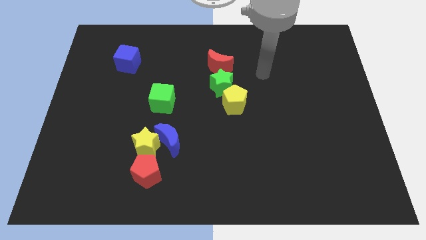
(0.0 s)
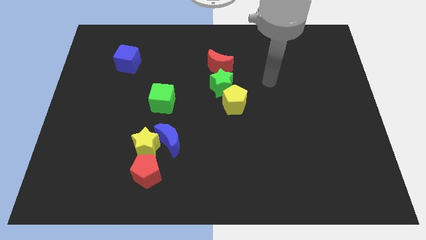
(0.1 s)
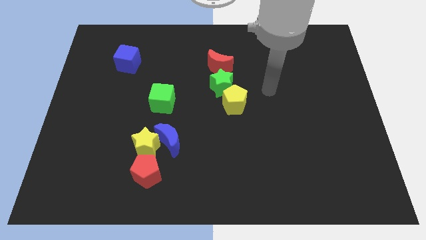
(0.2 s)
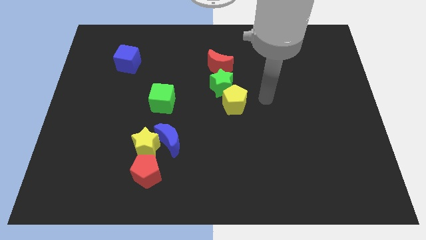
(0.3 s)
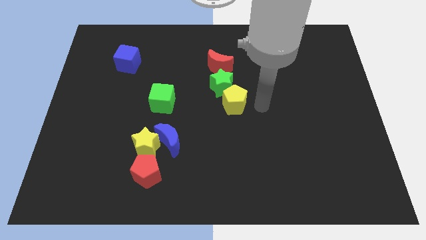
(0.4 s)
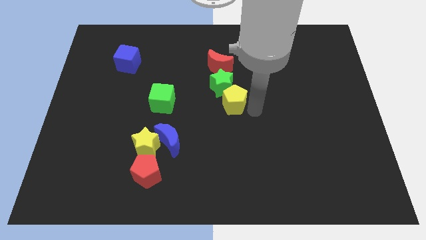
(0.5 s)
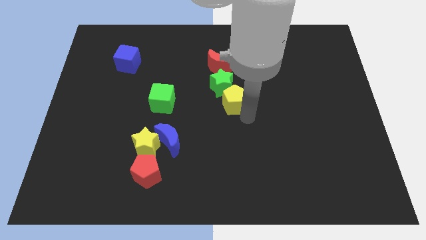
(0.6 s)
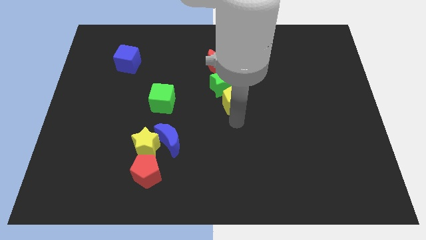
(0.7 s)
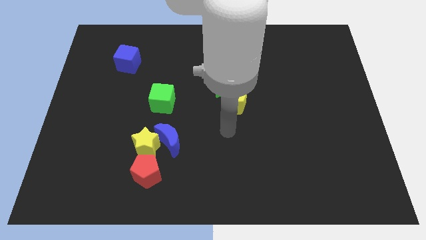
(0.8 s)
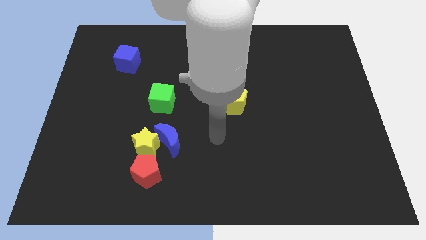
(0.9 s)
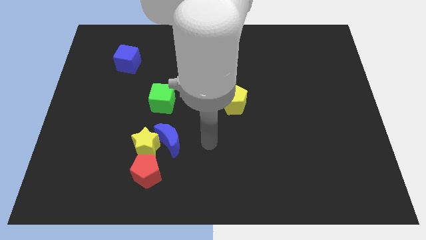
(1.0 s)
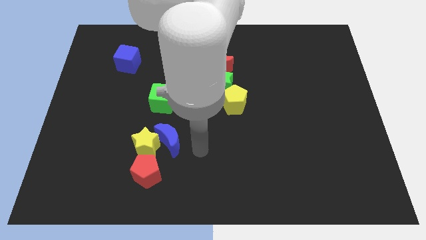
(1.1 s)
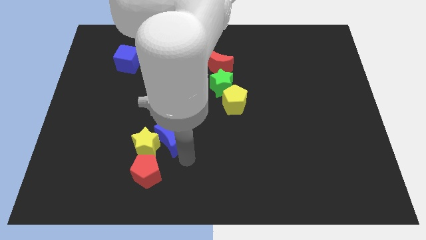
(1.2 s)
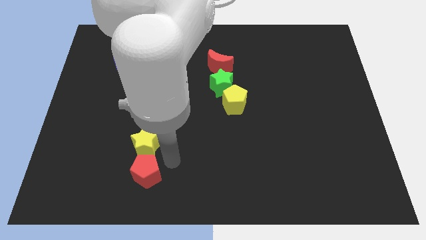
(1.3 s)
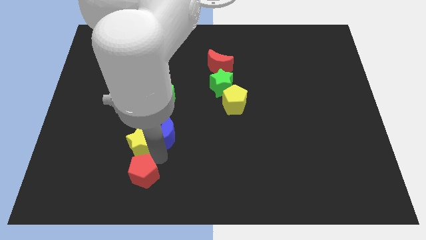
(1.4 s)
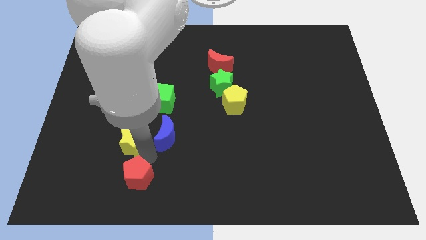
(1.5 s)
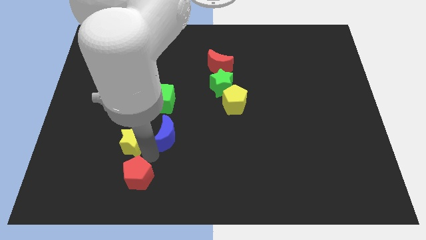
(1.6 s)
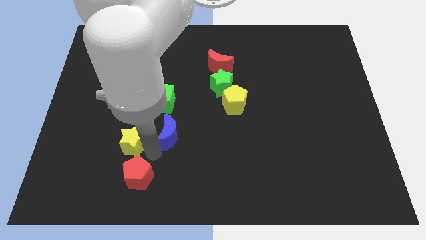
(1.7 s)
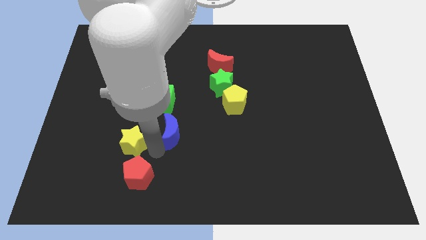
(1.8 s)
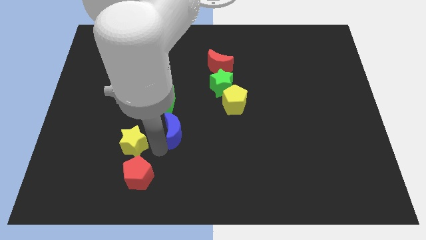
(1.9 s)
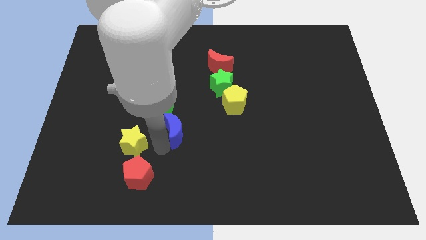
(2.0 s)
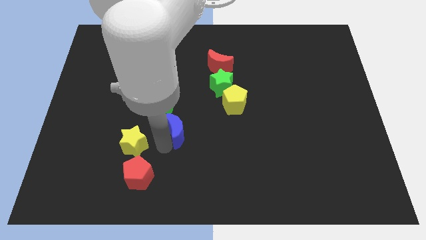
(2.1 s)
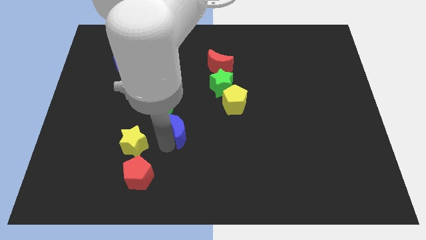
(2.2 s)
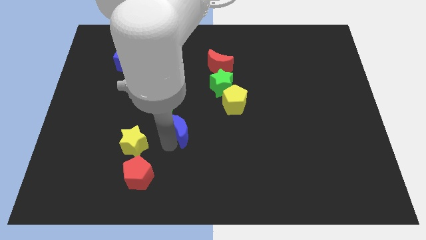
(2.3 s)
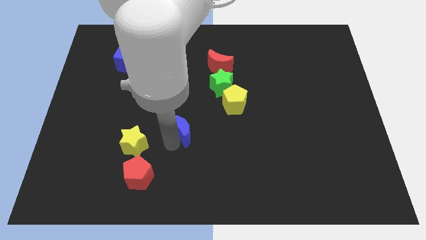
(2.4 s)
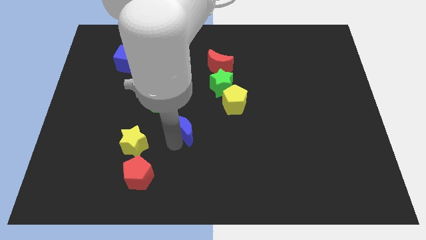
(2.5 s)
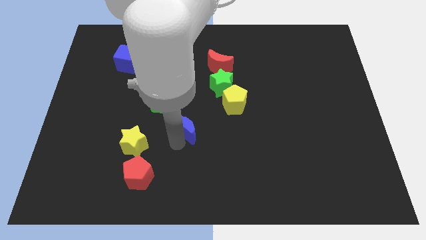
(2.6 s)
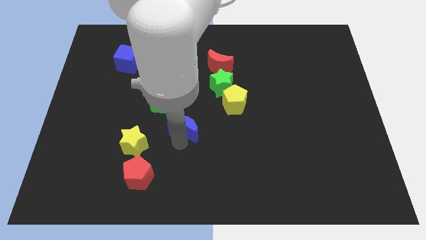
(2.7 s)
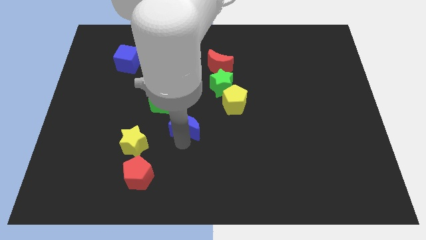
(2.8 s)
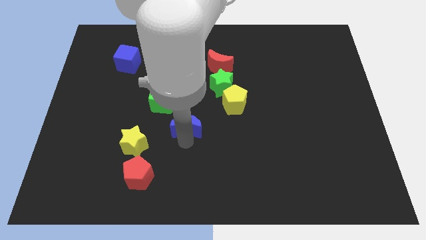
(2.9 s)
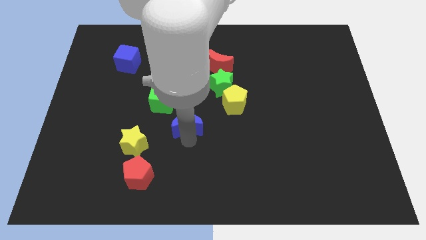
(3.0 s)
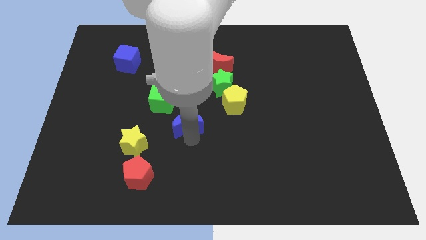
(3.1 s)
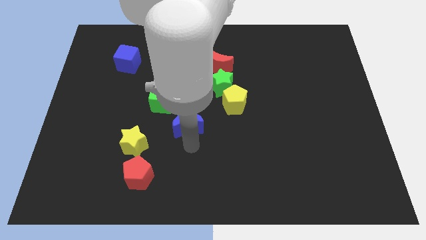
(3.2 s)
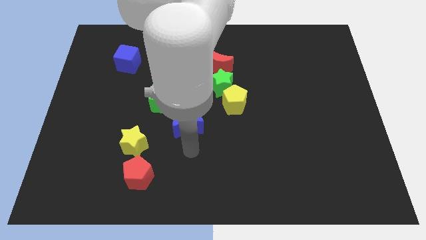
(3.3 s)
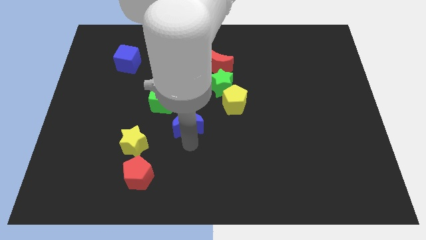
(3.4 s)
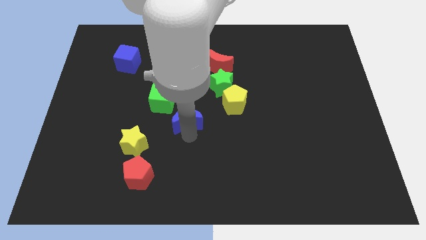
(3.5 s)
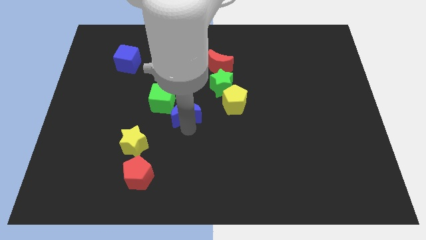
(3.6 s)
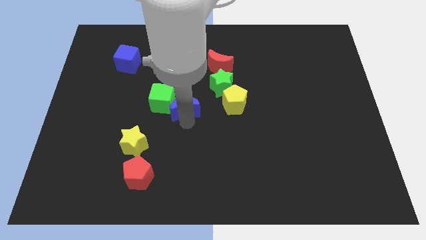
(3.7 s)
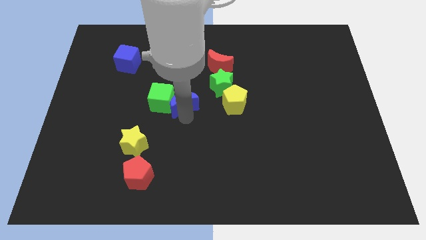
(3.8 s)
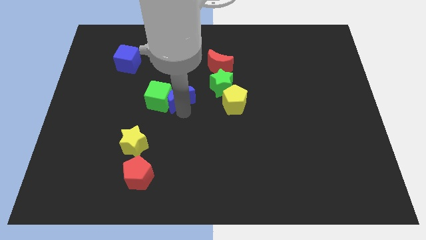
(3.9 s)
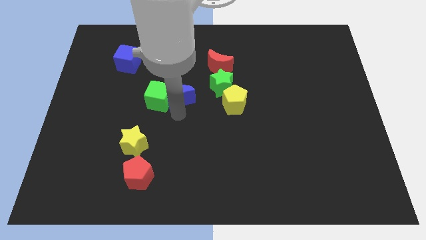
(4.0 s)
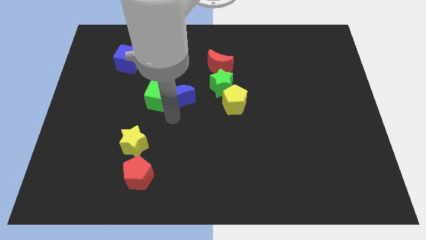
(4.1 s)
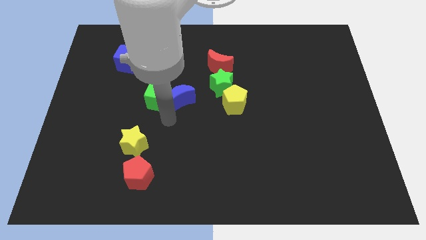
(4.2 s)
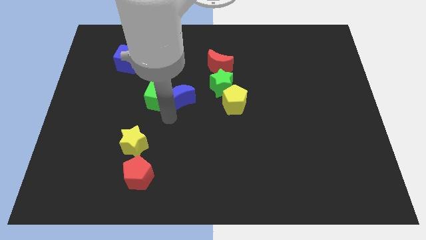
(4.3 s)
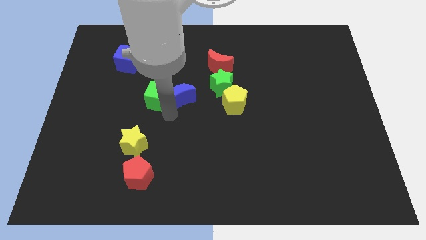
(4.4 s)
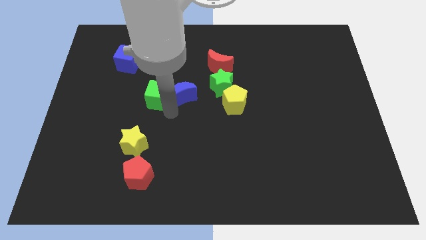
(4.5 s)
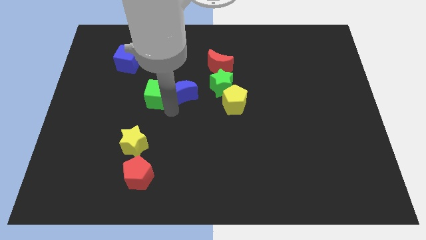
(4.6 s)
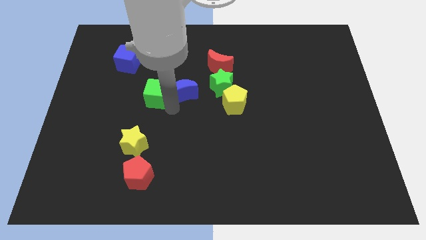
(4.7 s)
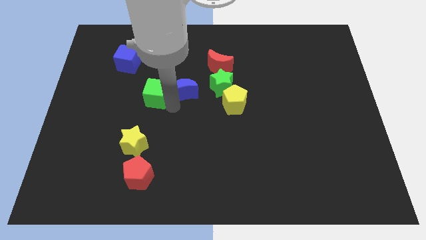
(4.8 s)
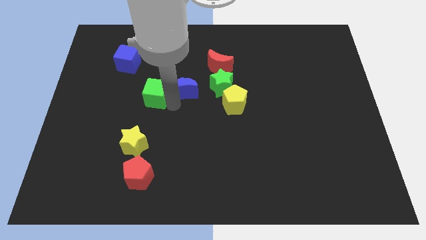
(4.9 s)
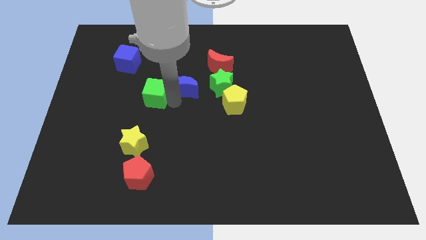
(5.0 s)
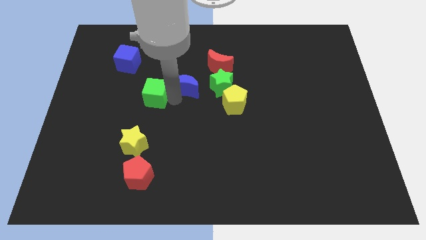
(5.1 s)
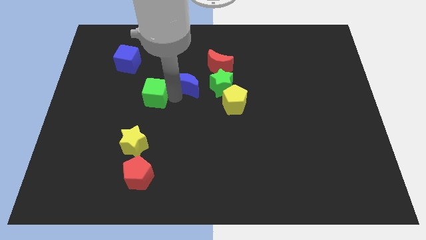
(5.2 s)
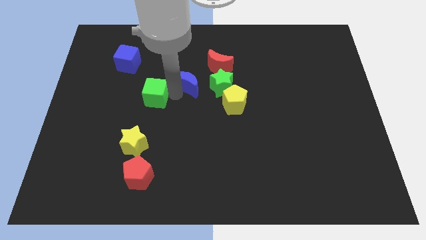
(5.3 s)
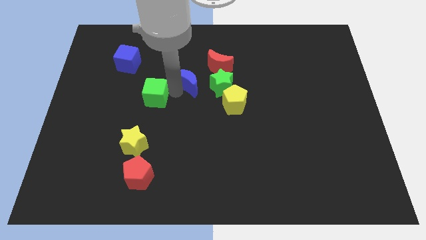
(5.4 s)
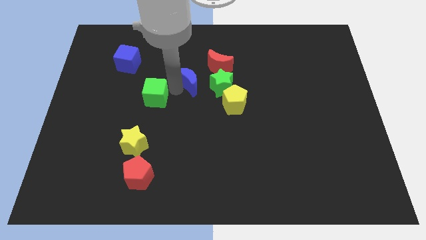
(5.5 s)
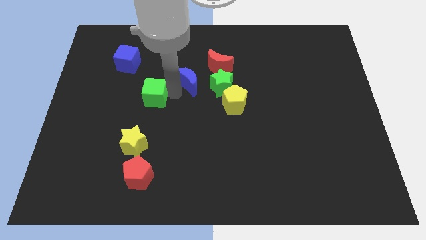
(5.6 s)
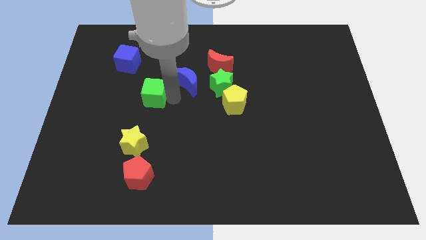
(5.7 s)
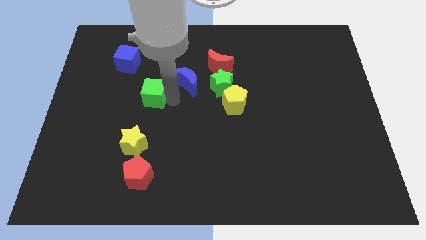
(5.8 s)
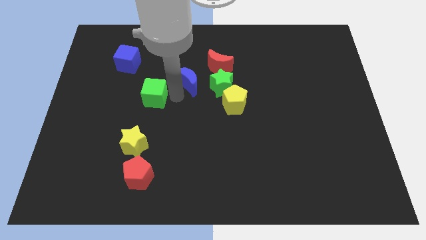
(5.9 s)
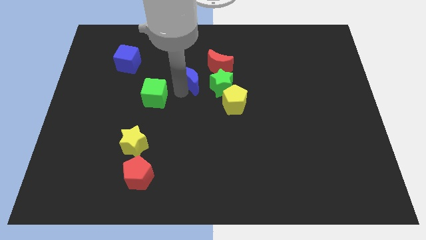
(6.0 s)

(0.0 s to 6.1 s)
slide the blue moon to the top left side of the green star
